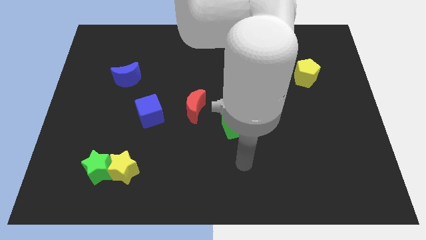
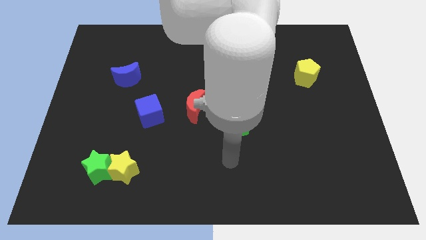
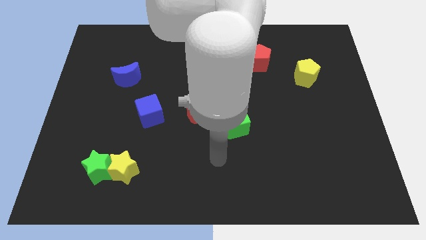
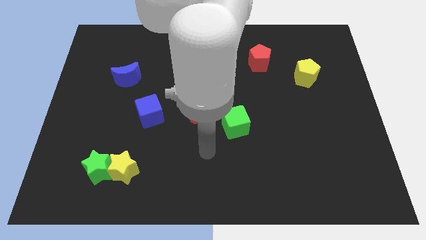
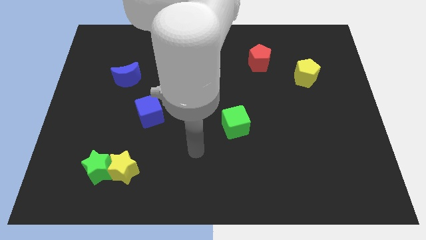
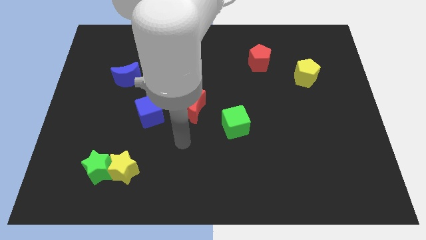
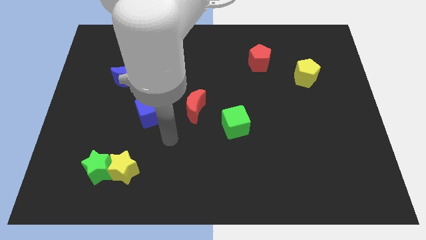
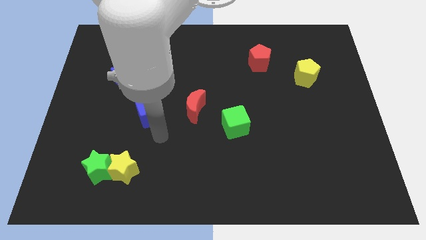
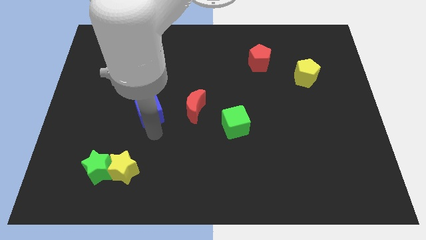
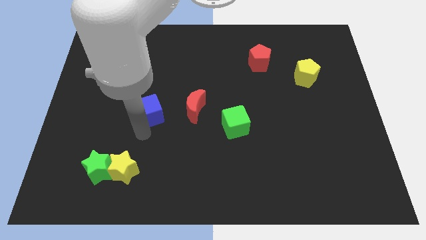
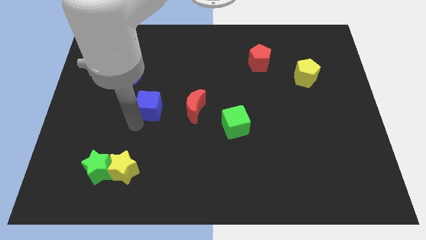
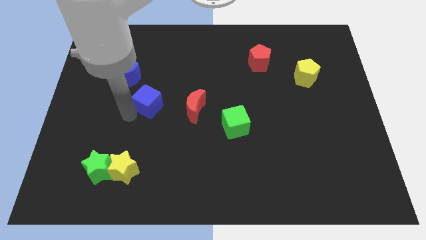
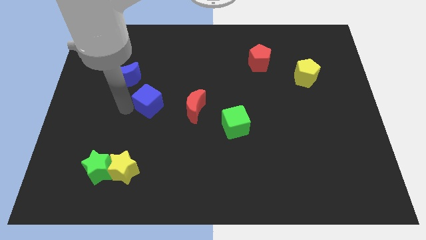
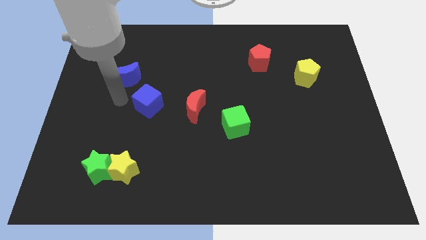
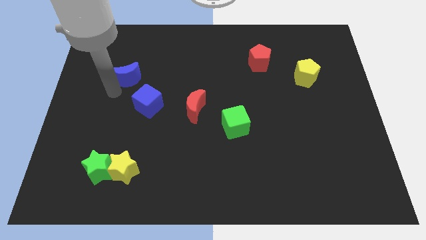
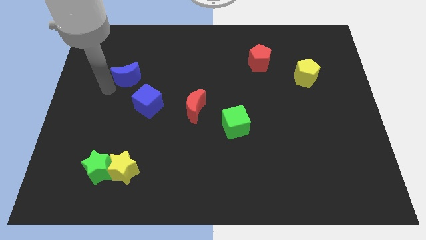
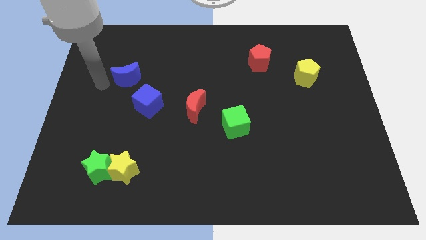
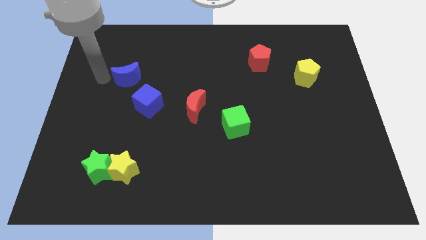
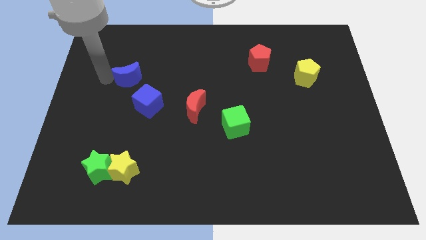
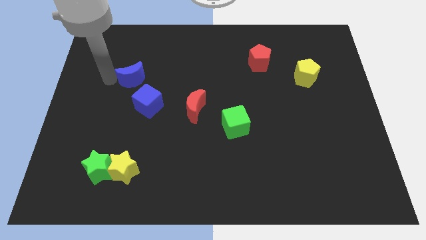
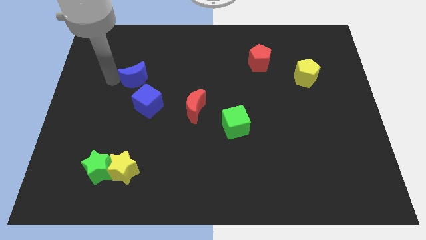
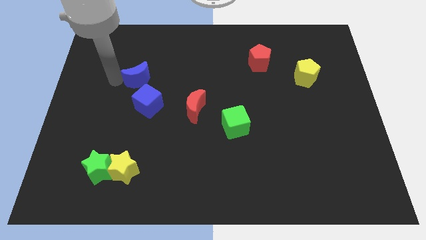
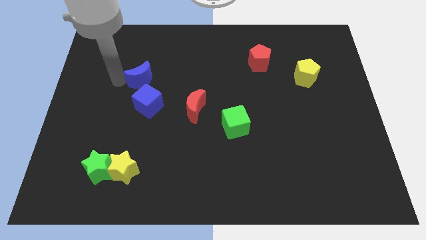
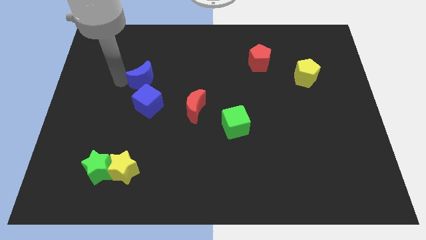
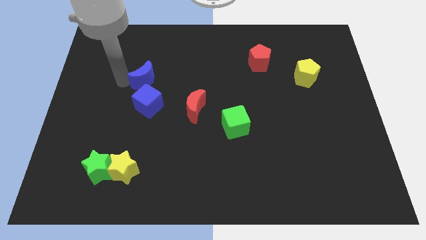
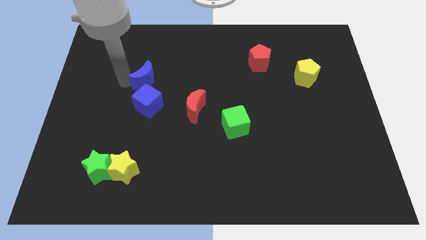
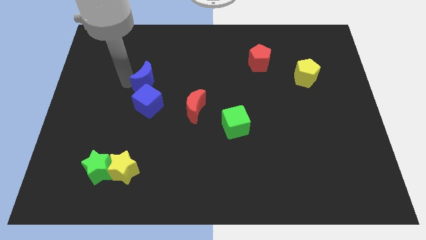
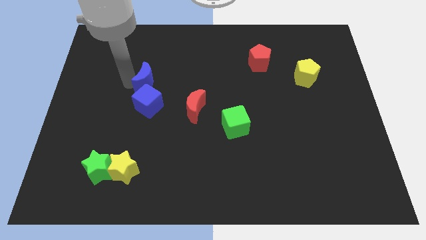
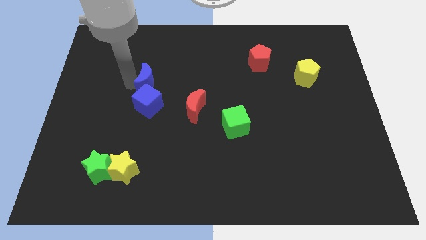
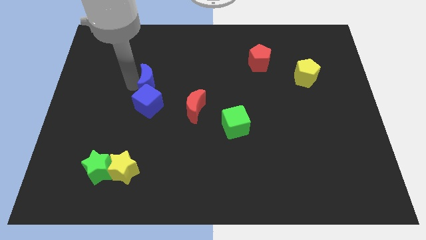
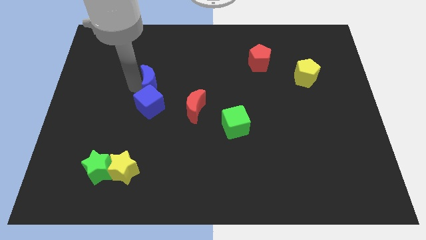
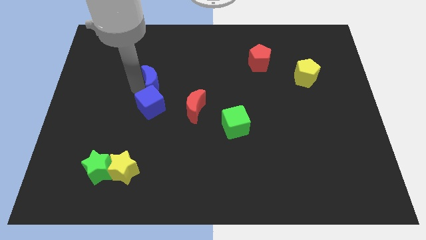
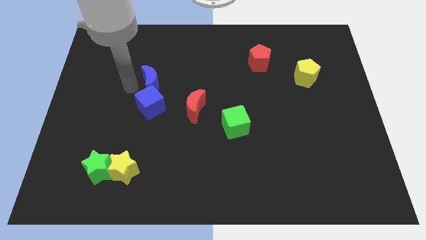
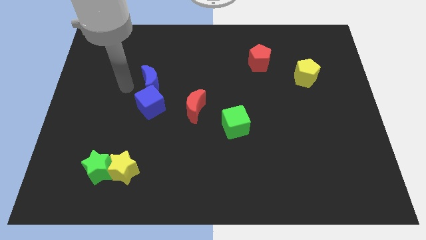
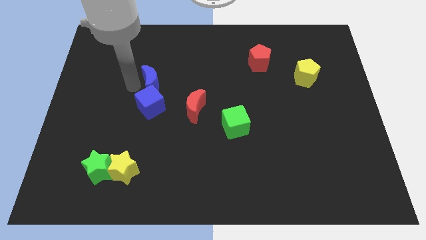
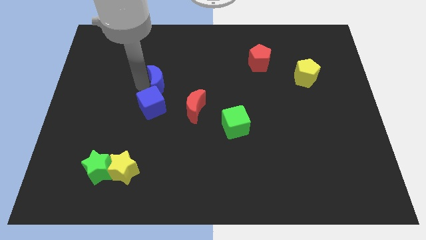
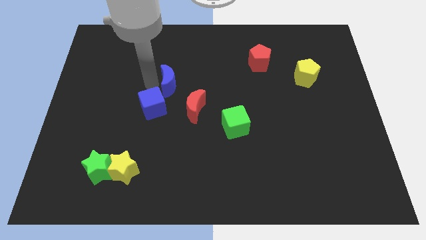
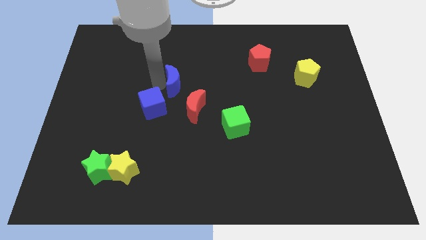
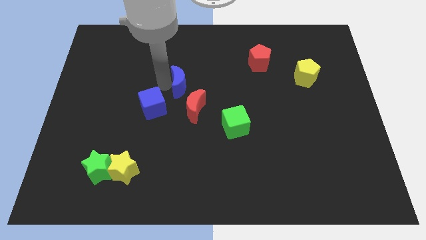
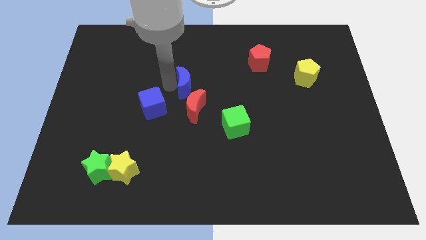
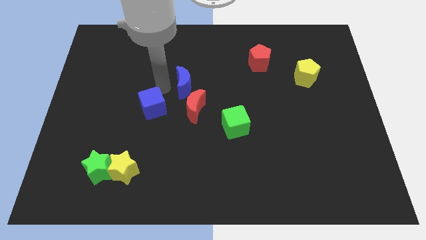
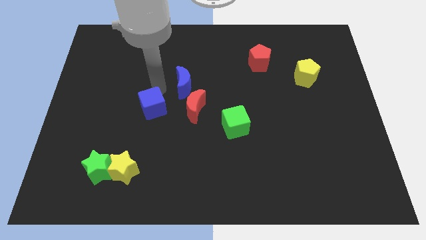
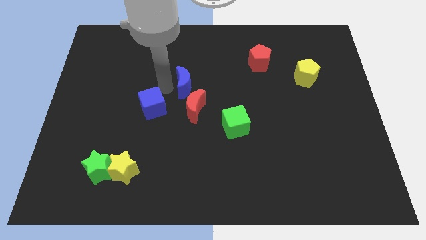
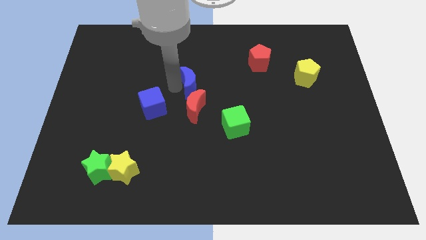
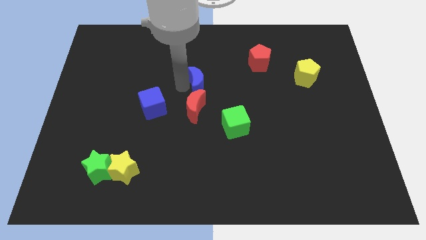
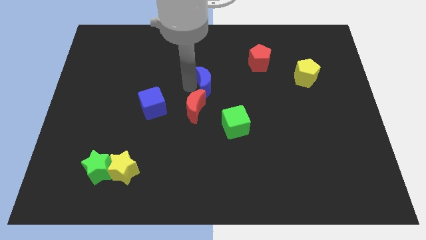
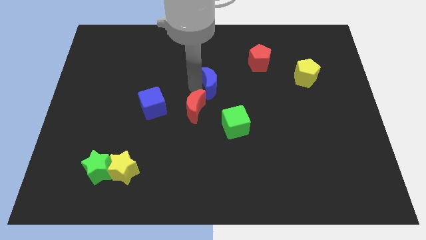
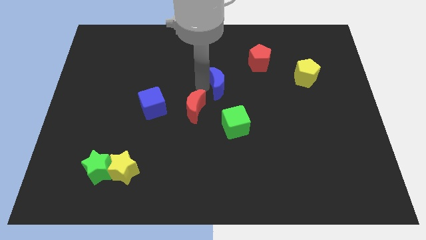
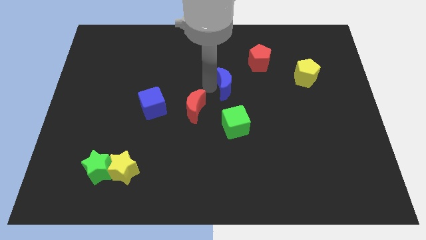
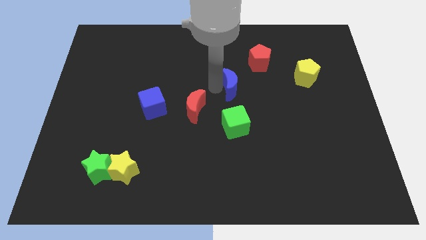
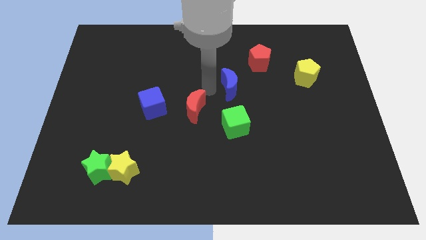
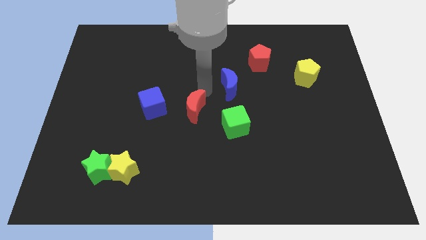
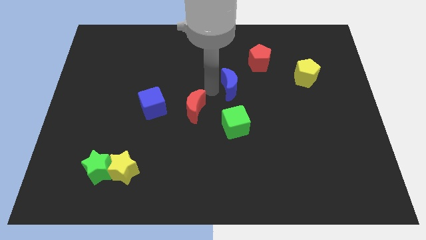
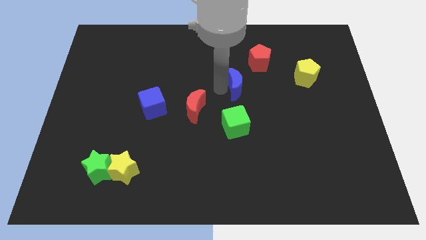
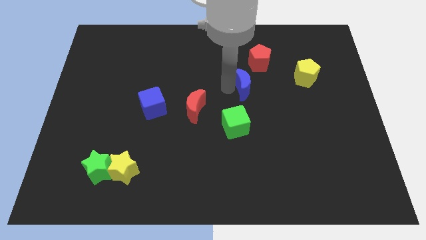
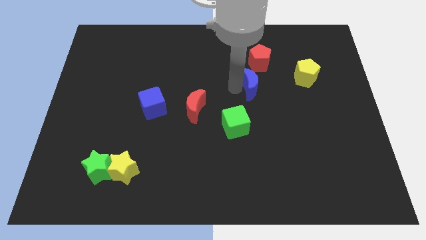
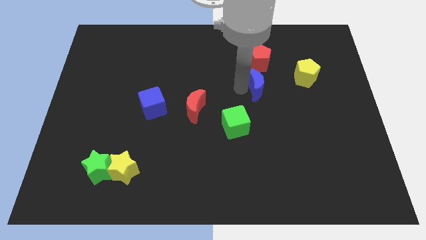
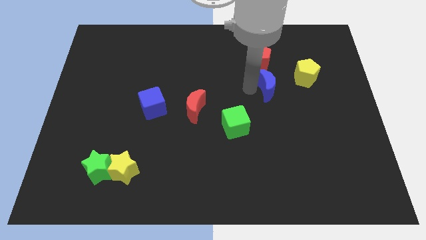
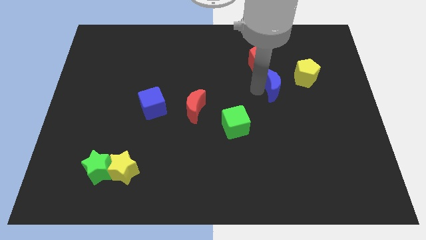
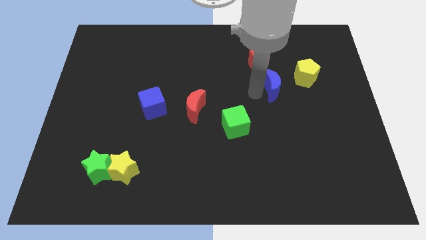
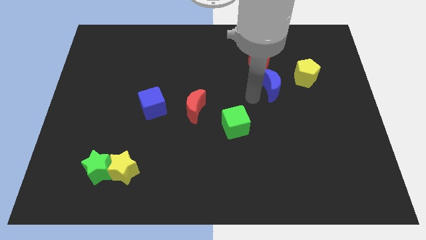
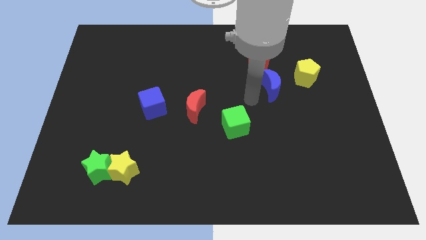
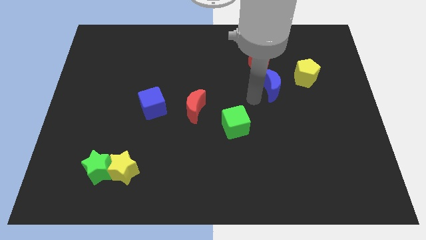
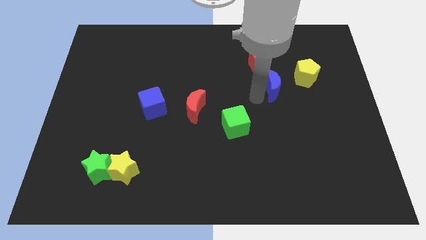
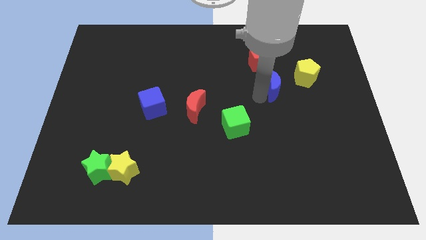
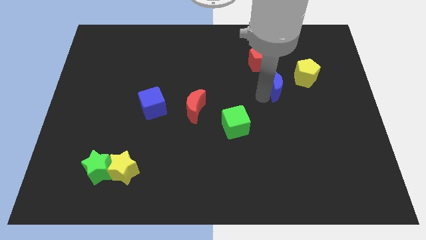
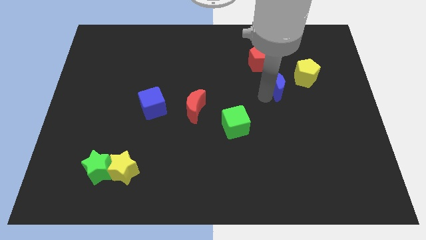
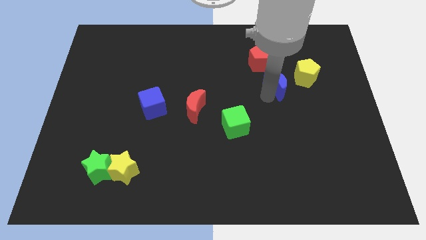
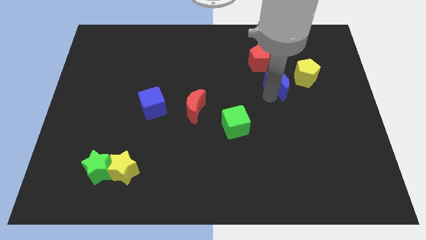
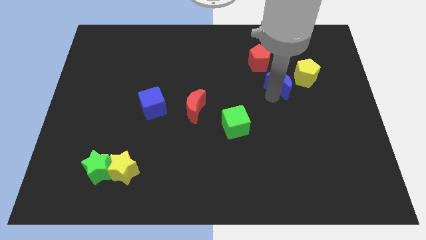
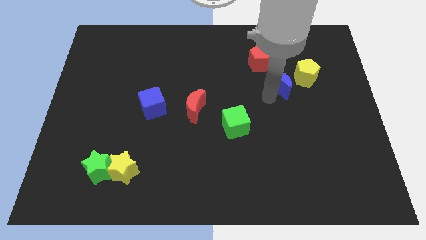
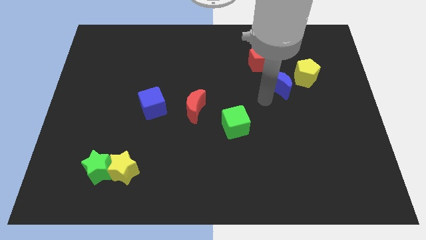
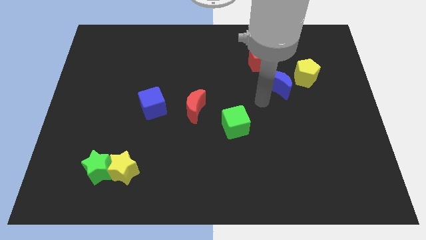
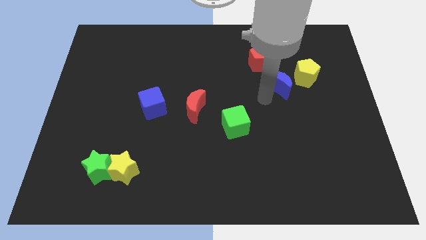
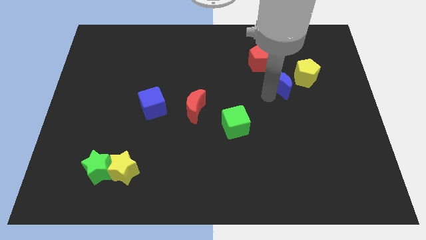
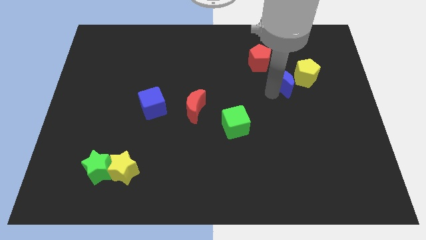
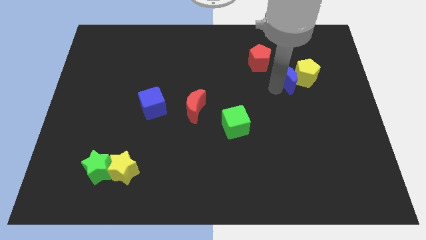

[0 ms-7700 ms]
slide the blue moon next to the yellow pentagon
